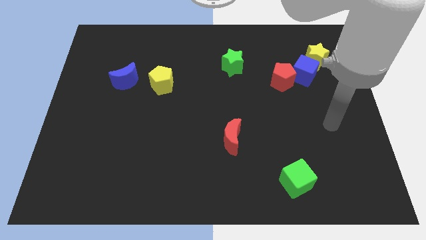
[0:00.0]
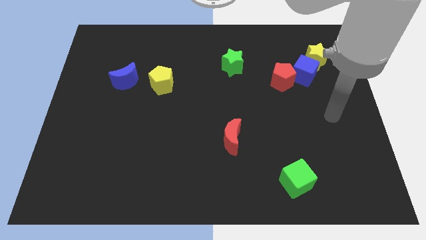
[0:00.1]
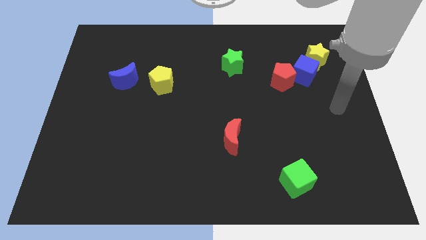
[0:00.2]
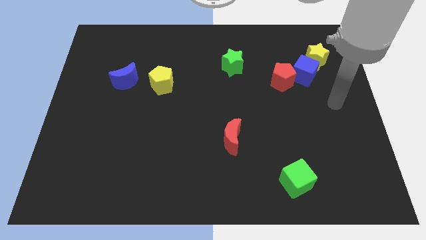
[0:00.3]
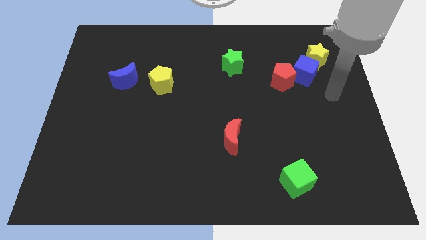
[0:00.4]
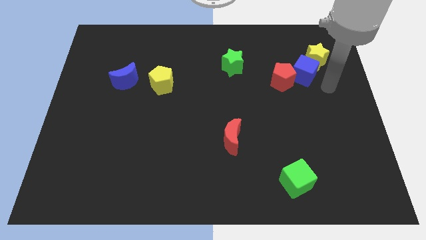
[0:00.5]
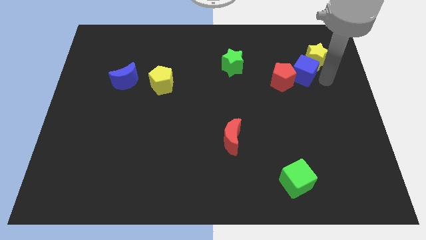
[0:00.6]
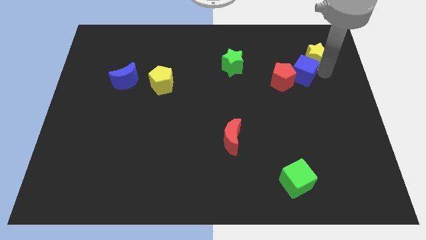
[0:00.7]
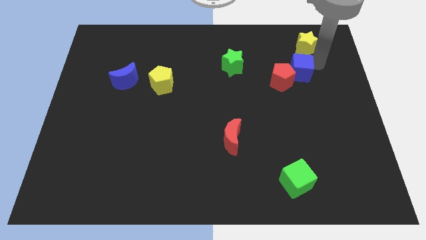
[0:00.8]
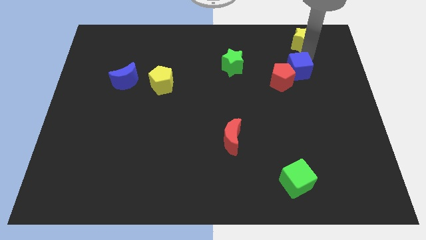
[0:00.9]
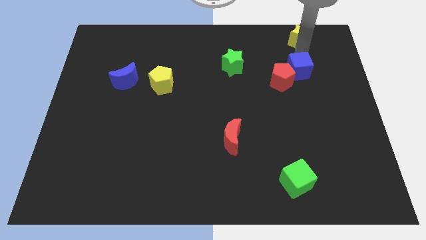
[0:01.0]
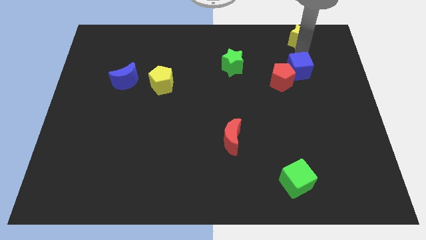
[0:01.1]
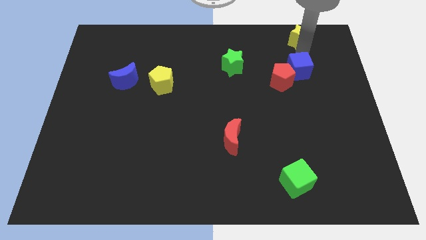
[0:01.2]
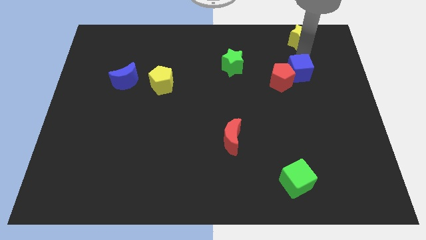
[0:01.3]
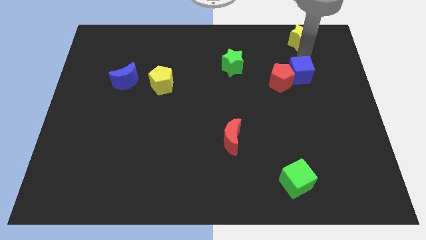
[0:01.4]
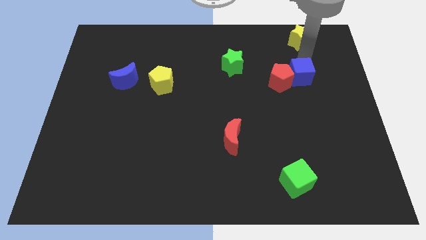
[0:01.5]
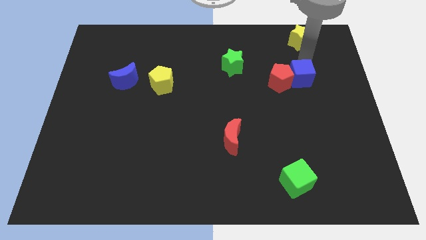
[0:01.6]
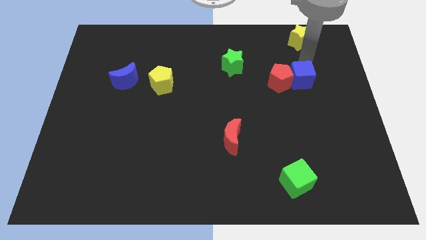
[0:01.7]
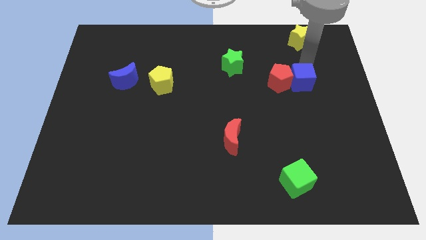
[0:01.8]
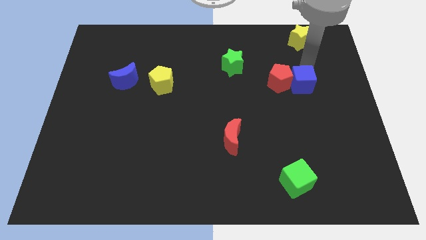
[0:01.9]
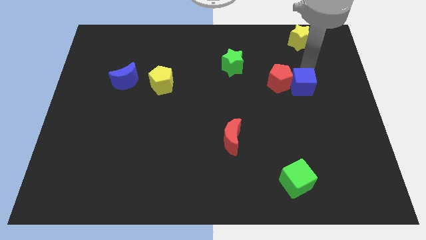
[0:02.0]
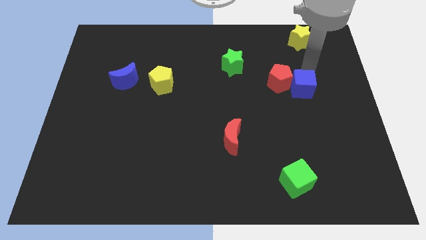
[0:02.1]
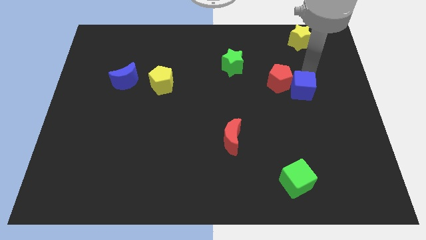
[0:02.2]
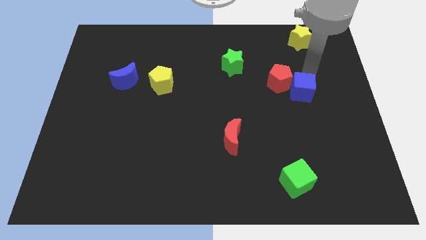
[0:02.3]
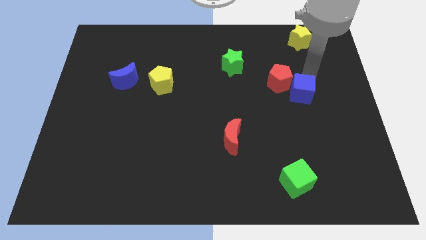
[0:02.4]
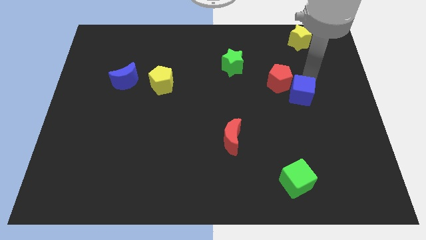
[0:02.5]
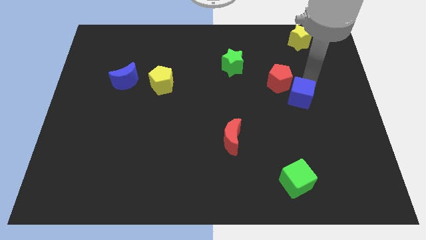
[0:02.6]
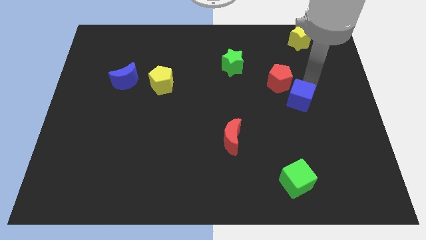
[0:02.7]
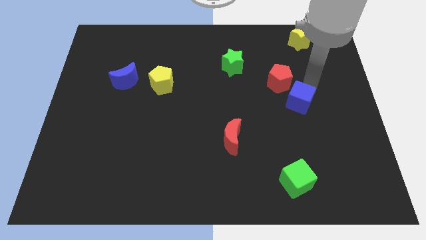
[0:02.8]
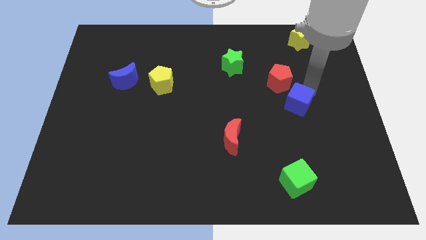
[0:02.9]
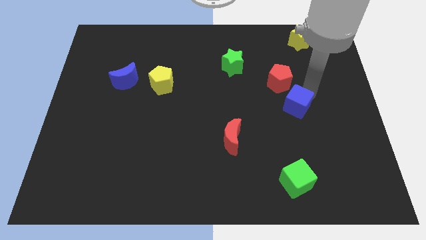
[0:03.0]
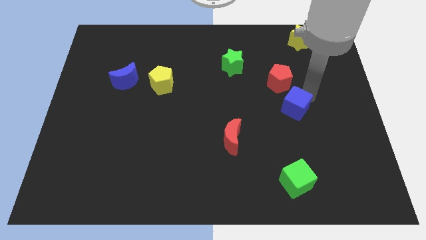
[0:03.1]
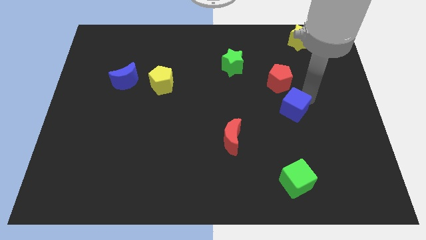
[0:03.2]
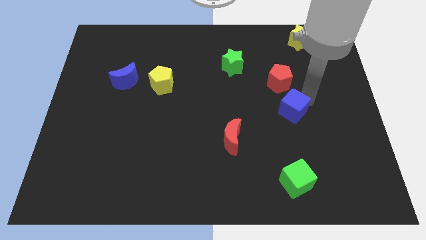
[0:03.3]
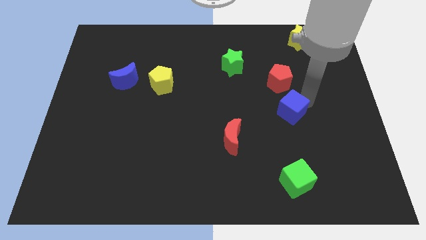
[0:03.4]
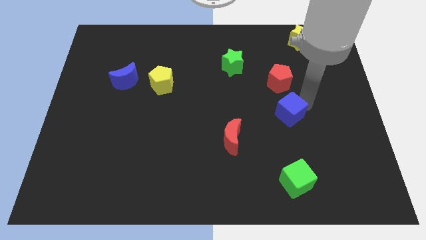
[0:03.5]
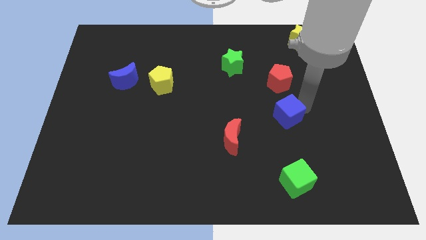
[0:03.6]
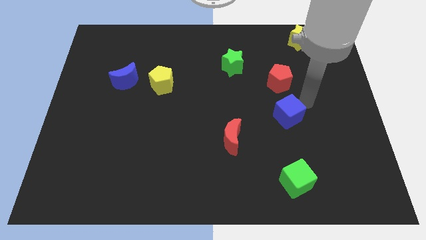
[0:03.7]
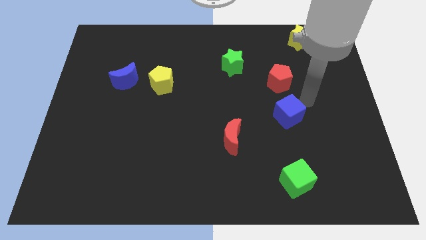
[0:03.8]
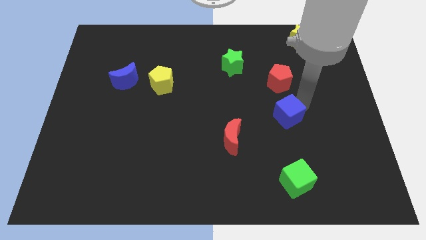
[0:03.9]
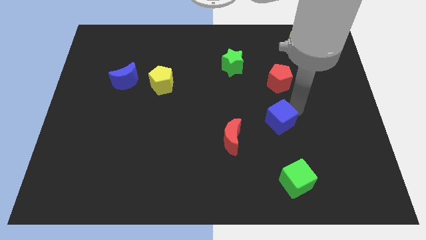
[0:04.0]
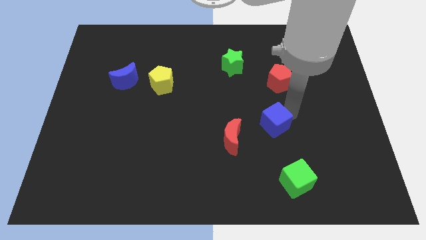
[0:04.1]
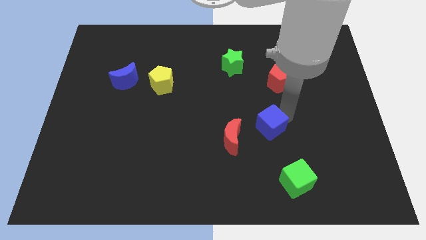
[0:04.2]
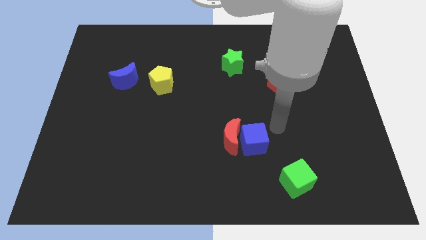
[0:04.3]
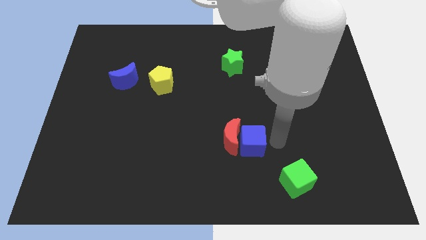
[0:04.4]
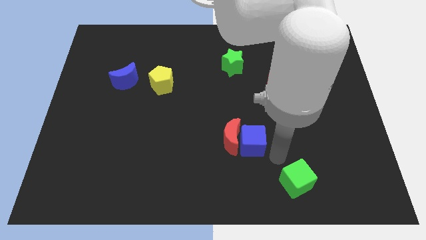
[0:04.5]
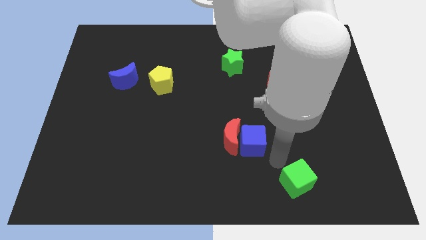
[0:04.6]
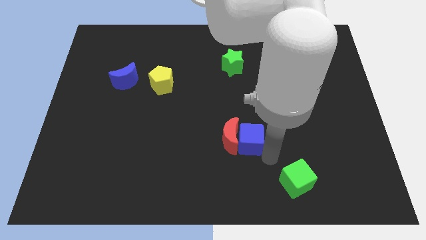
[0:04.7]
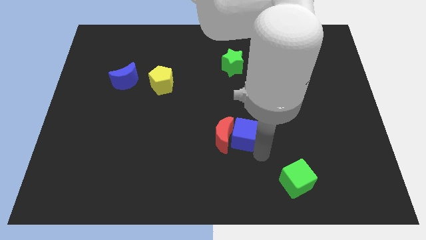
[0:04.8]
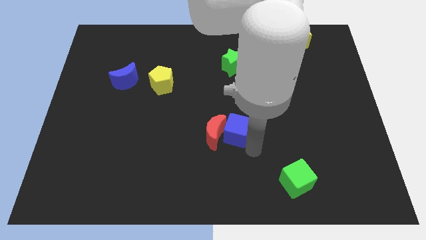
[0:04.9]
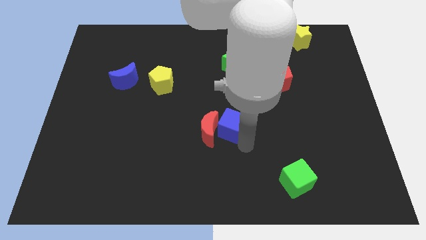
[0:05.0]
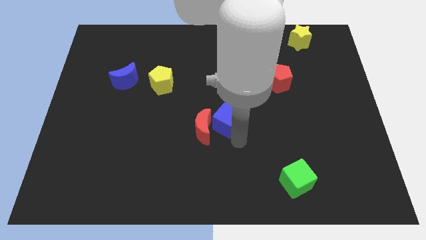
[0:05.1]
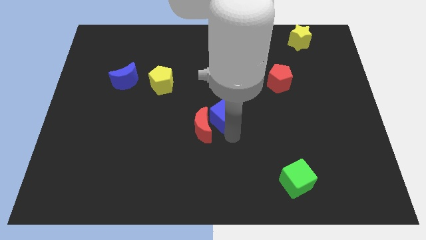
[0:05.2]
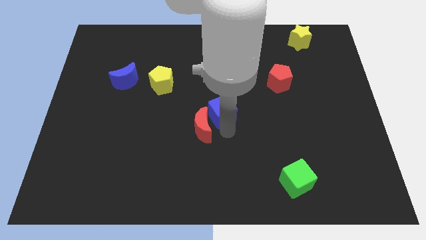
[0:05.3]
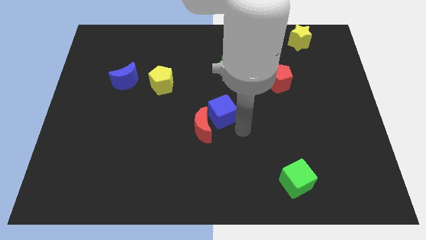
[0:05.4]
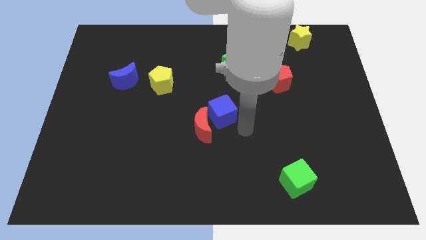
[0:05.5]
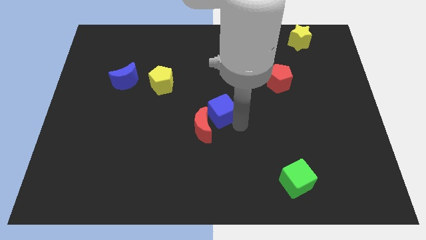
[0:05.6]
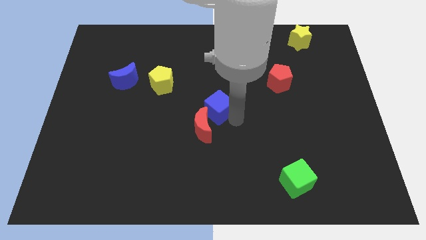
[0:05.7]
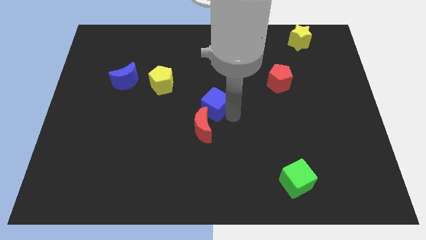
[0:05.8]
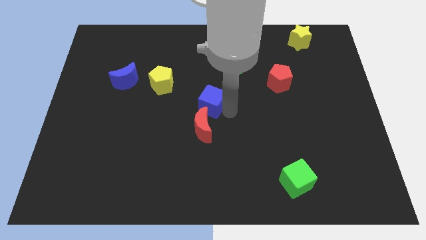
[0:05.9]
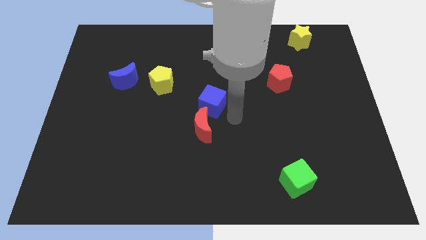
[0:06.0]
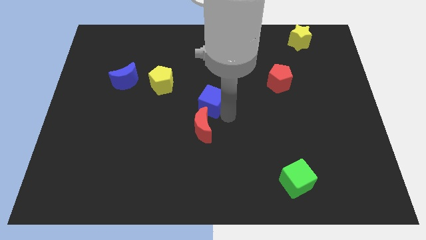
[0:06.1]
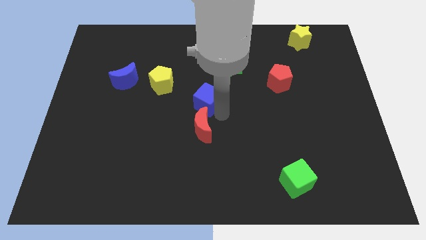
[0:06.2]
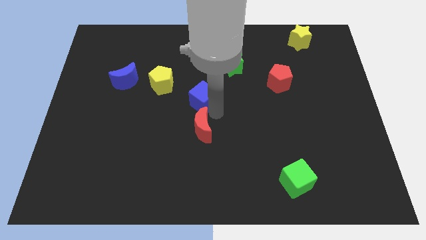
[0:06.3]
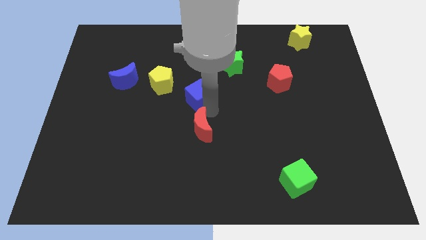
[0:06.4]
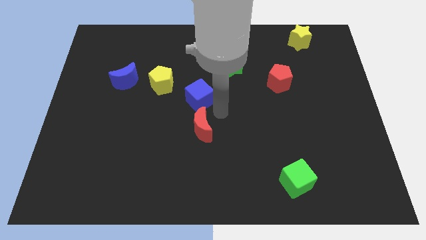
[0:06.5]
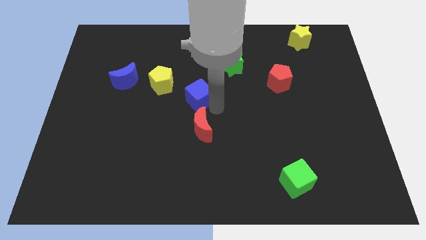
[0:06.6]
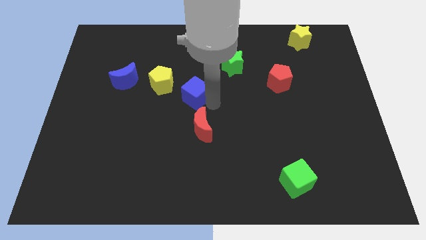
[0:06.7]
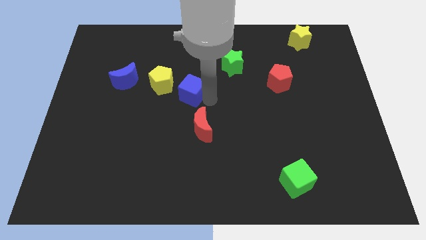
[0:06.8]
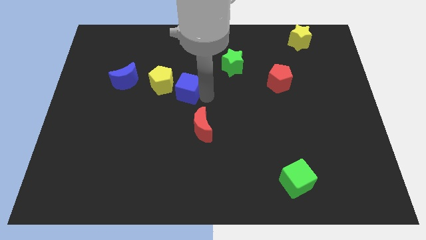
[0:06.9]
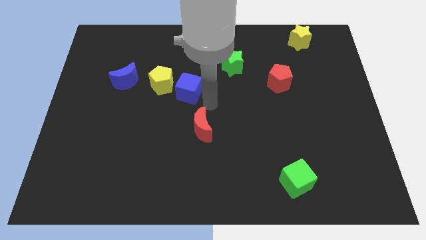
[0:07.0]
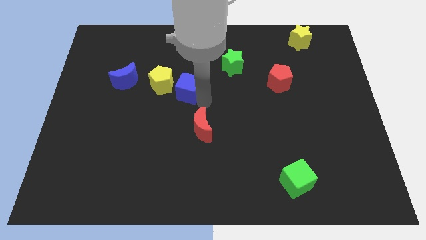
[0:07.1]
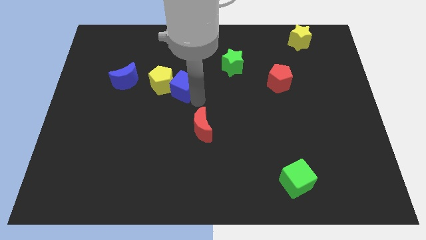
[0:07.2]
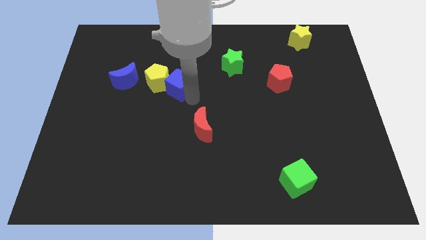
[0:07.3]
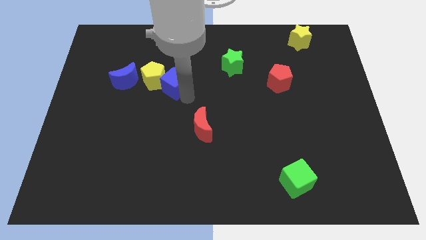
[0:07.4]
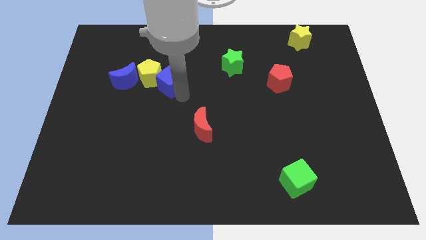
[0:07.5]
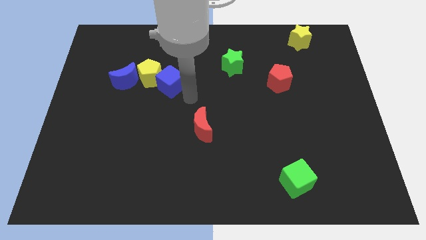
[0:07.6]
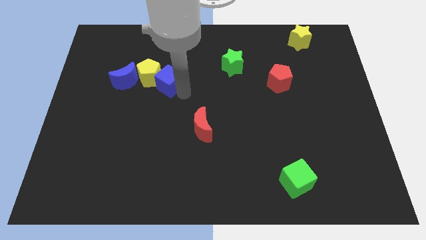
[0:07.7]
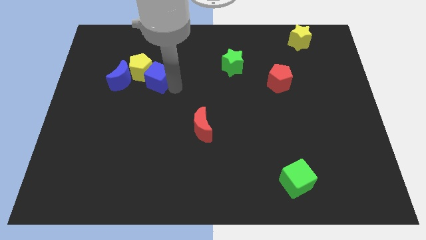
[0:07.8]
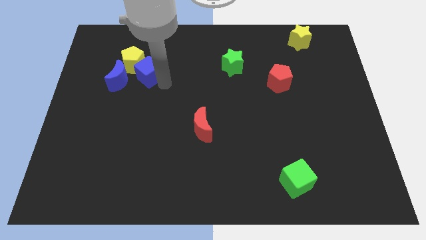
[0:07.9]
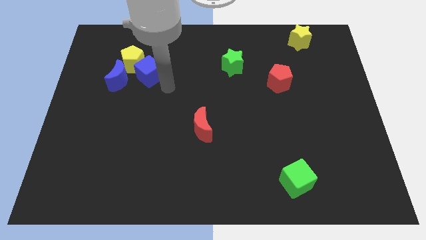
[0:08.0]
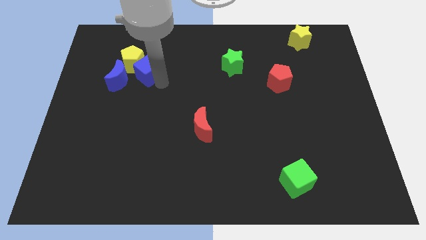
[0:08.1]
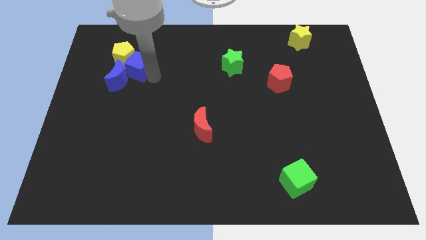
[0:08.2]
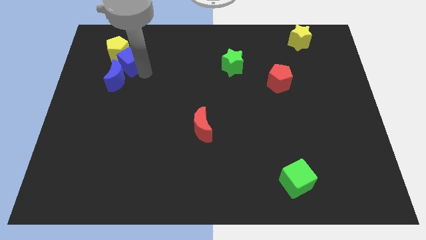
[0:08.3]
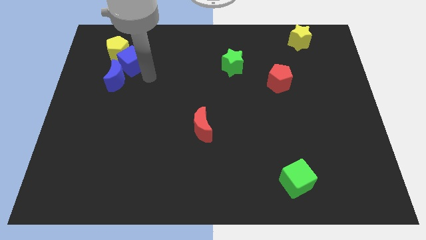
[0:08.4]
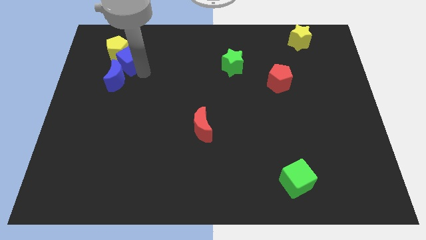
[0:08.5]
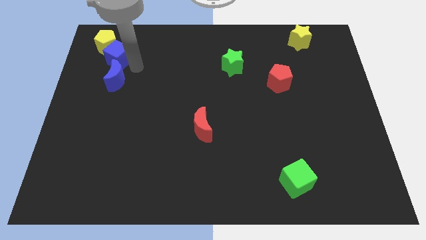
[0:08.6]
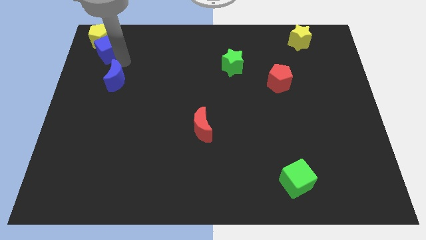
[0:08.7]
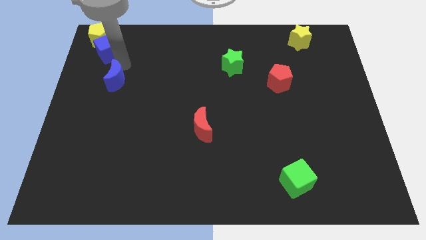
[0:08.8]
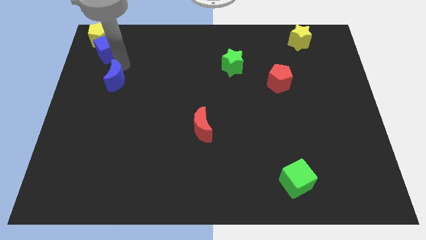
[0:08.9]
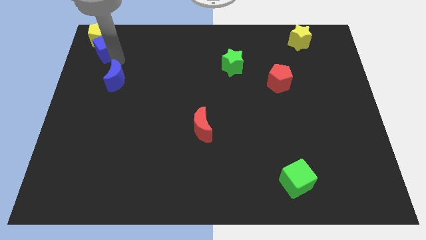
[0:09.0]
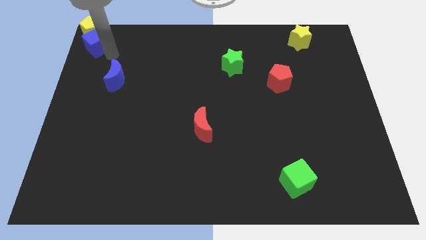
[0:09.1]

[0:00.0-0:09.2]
push the blue cube to the top left
